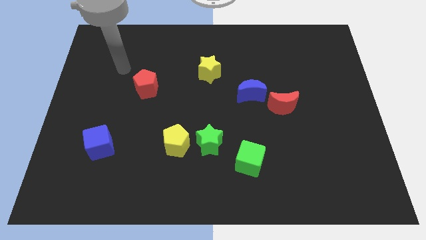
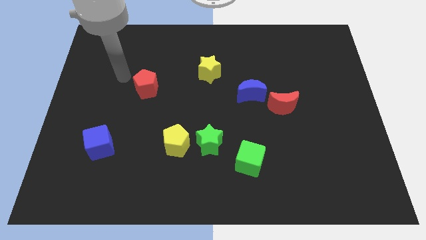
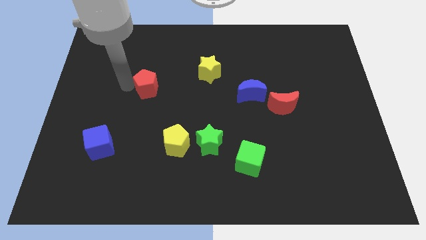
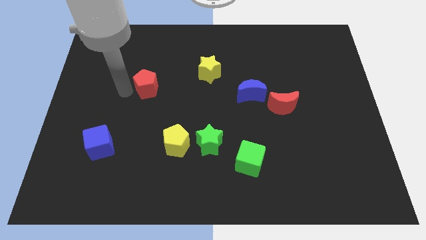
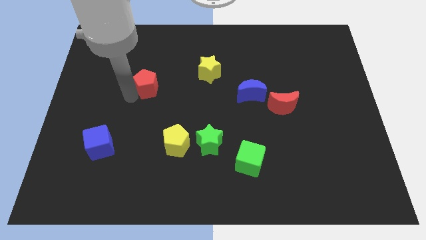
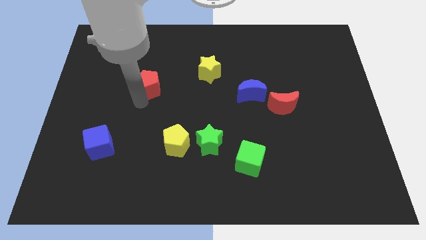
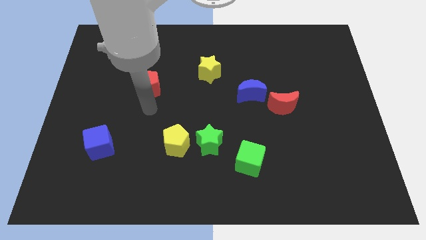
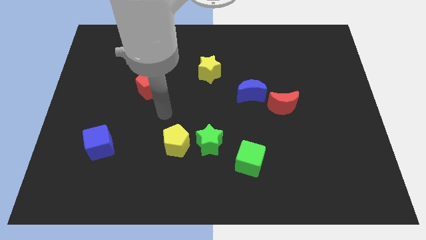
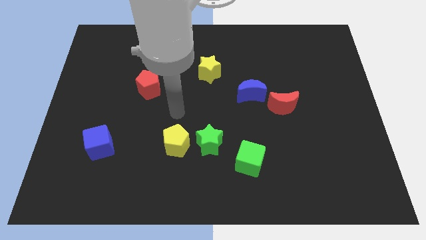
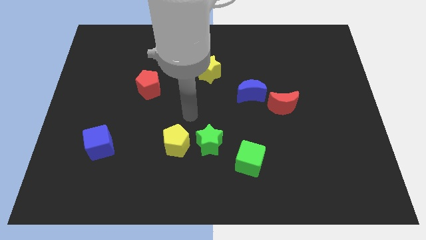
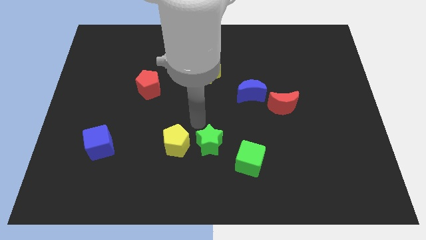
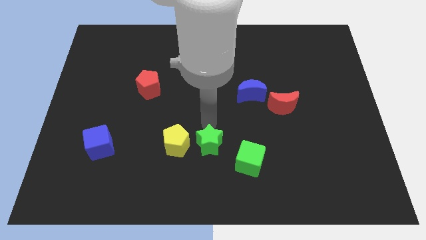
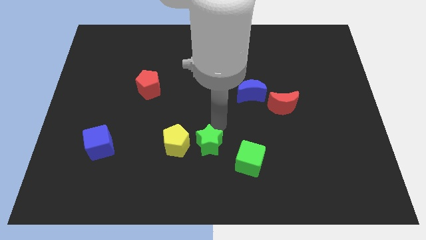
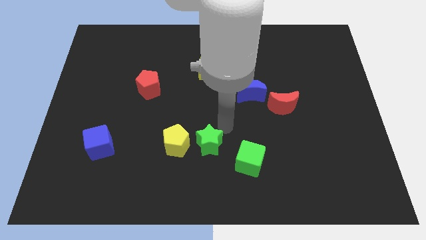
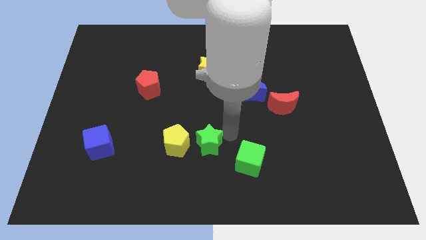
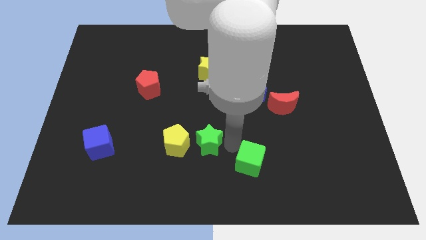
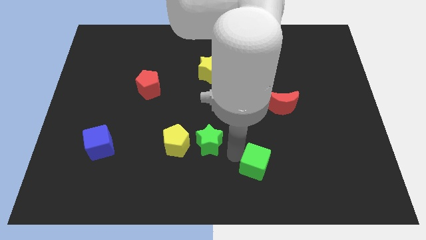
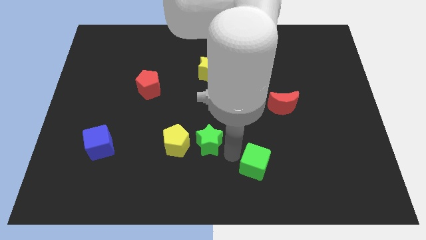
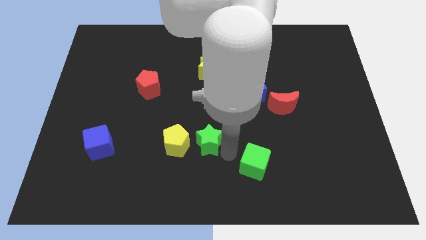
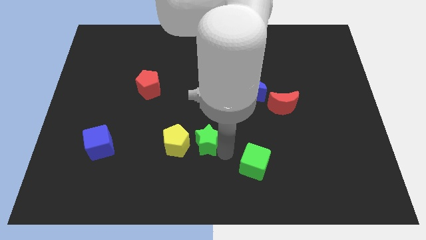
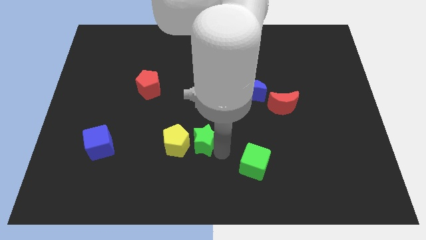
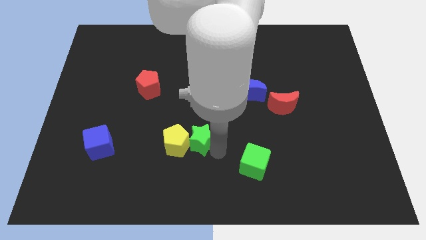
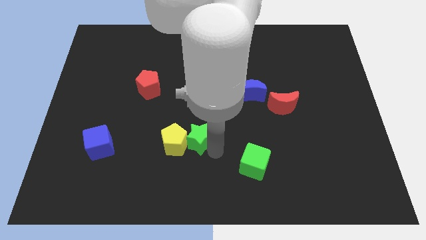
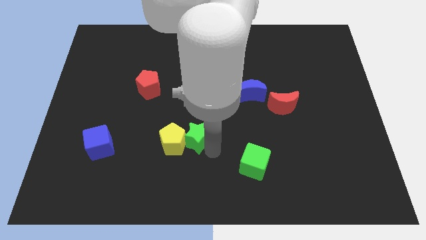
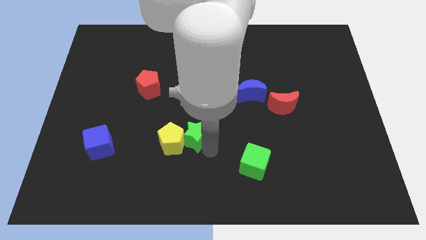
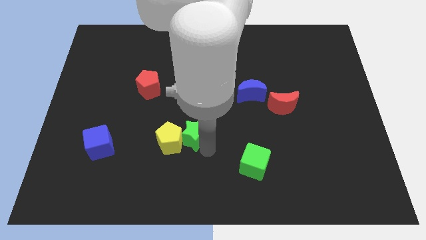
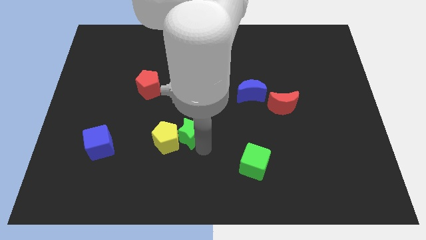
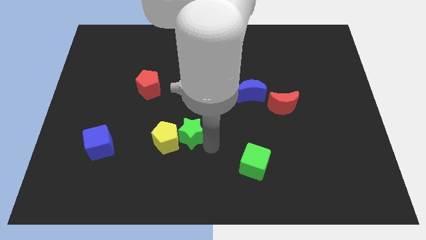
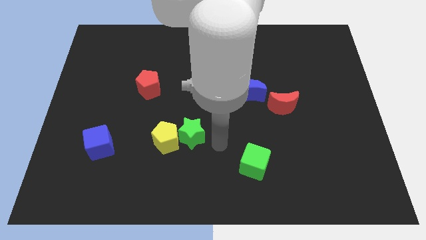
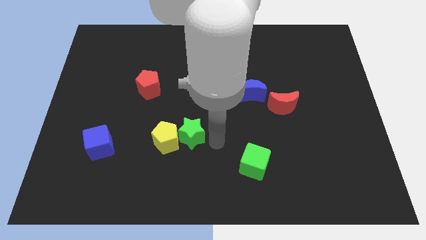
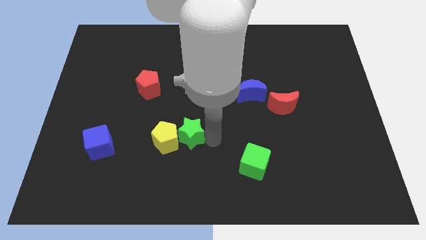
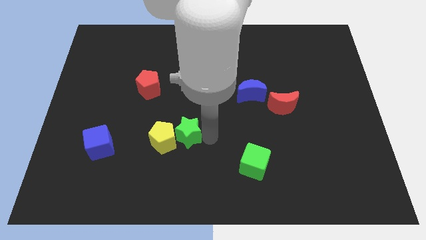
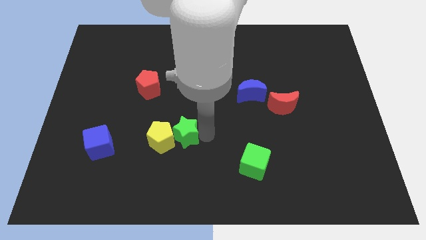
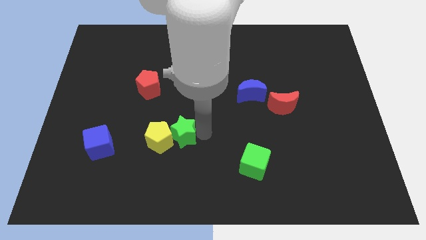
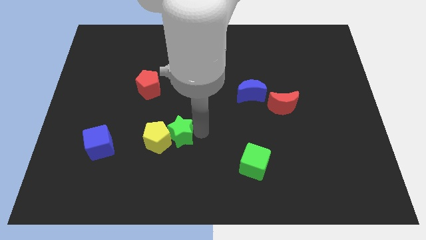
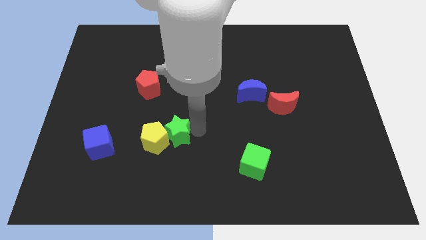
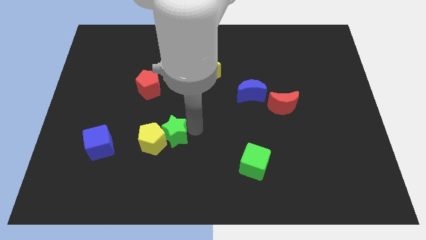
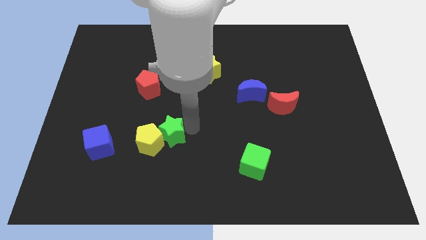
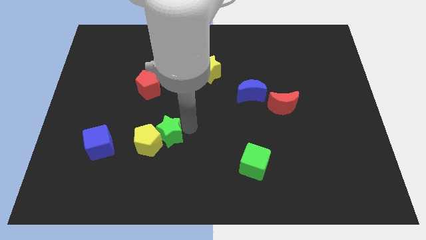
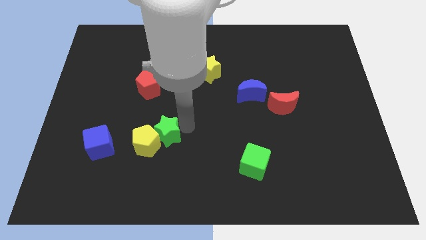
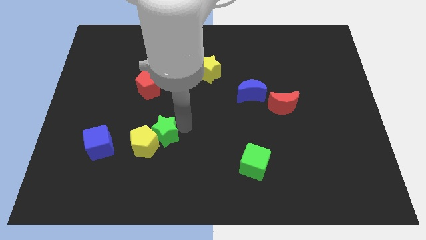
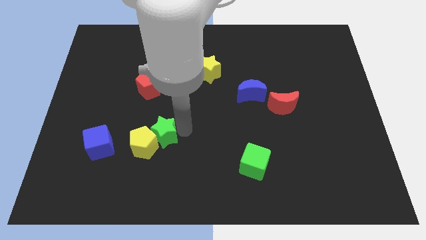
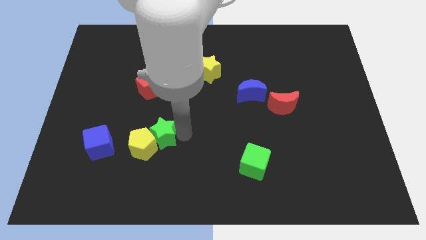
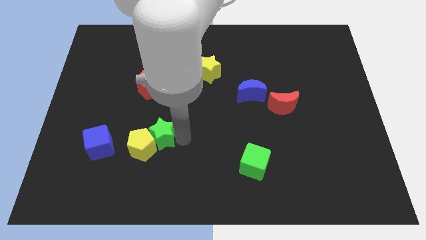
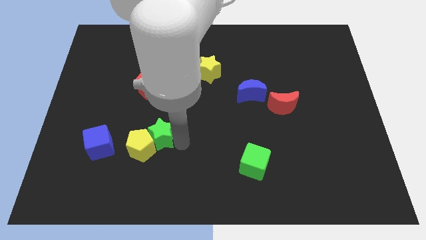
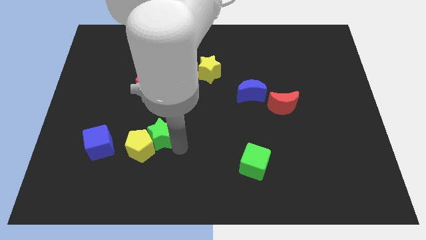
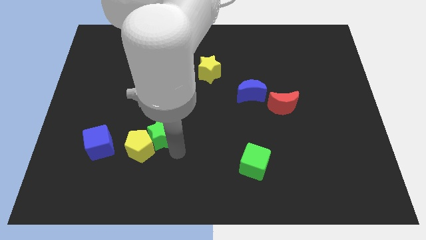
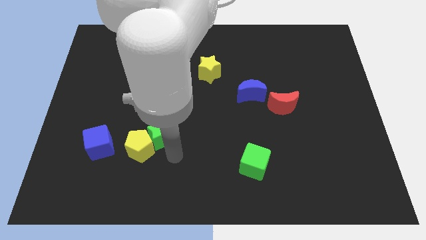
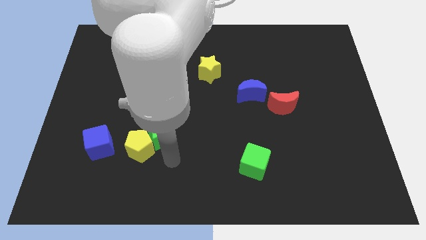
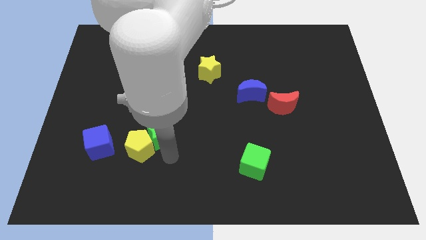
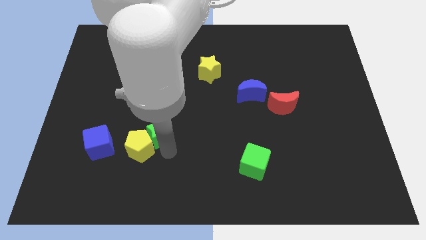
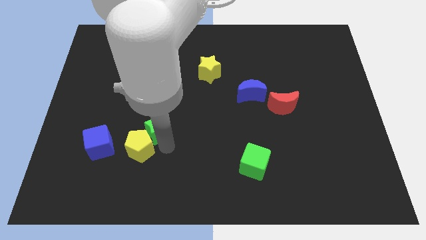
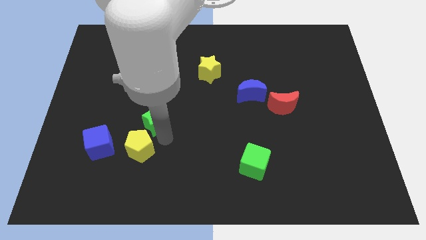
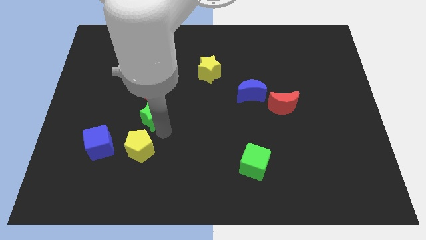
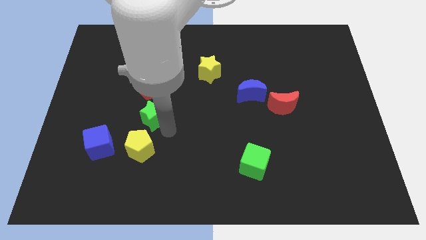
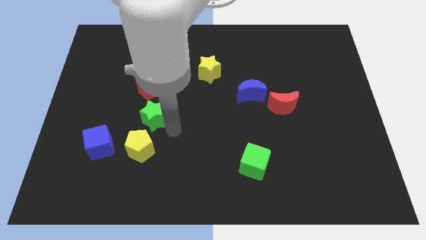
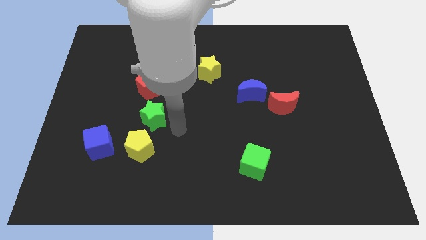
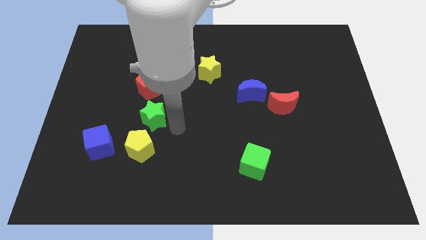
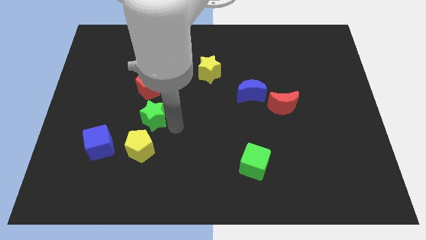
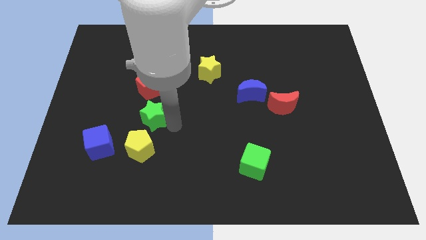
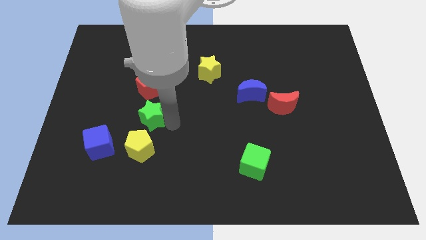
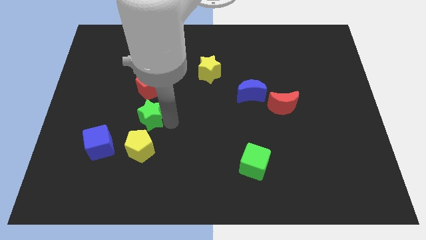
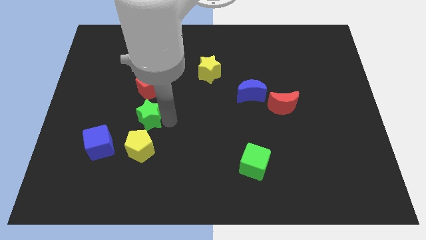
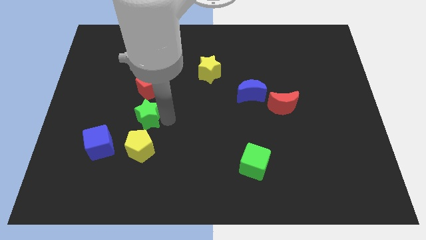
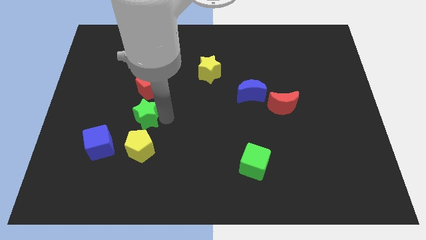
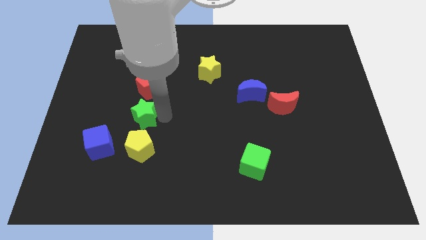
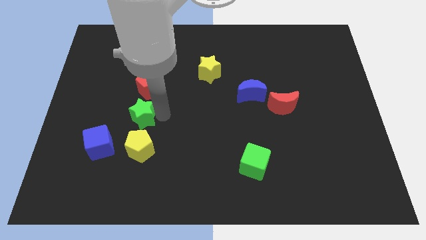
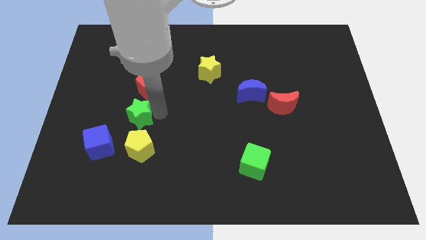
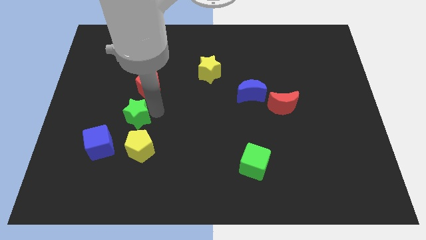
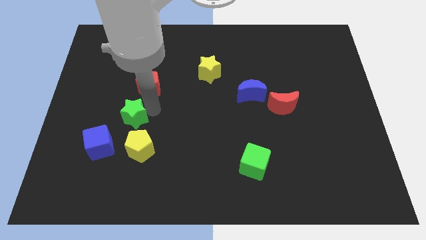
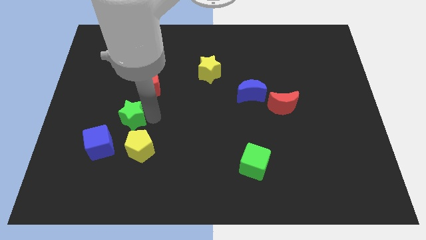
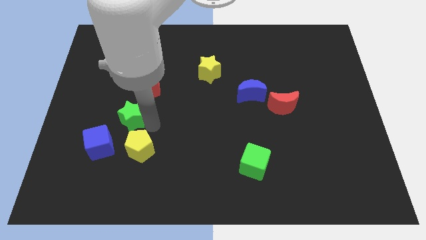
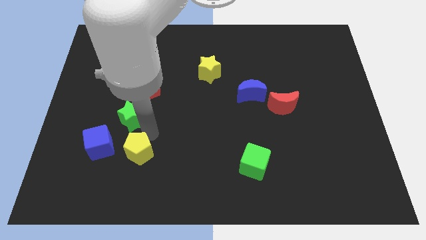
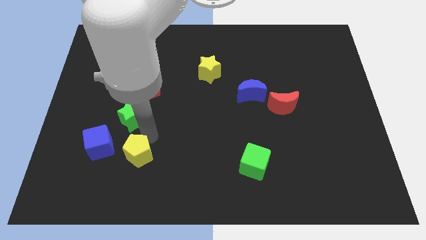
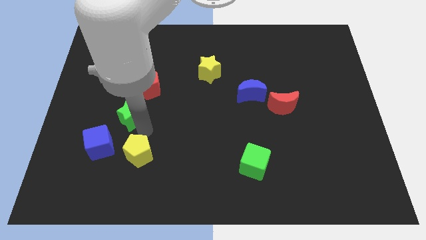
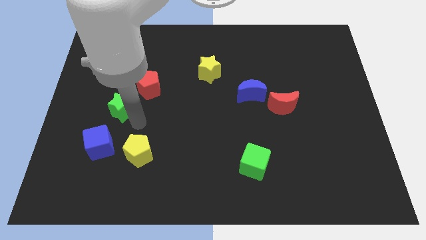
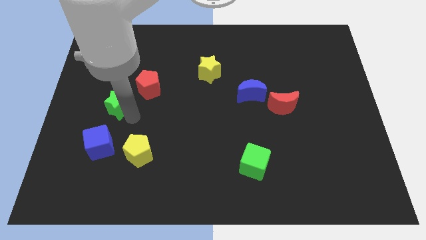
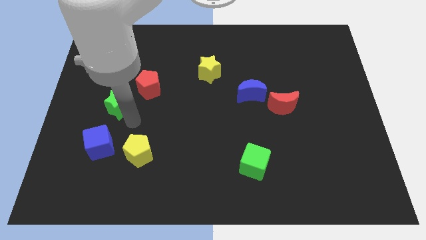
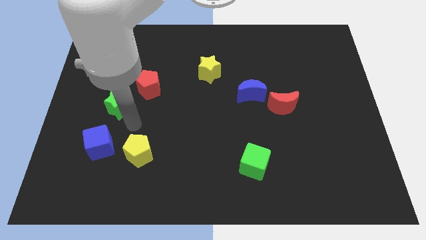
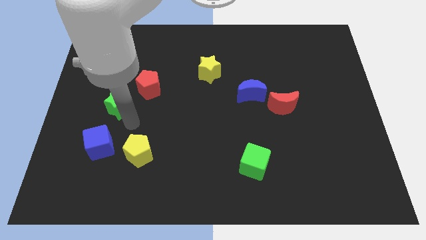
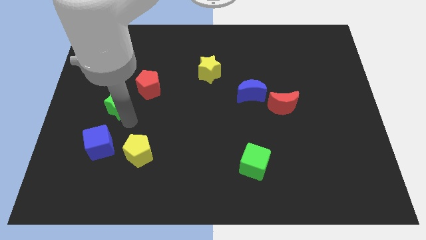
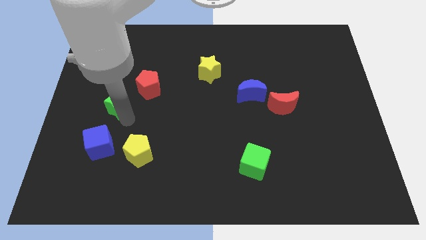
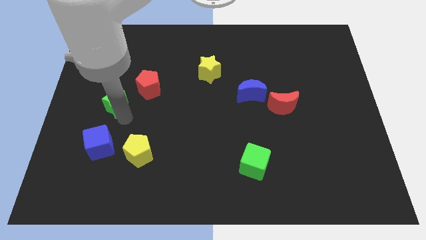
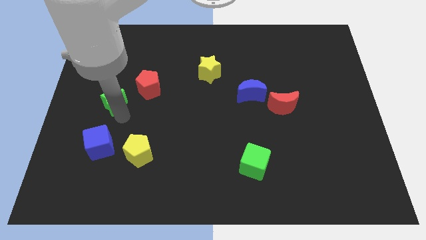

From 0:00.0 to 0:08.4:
put the green star left of the red pentagon
